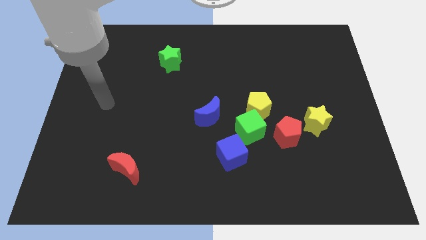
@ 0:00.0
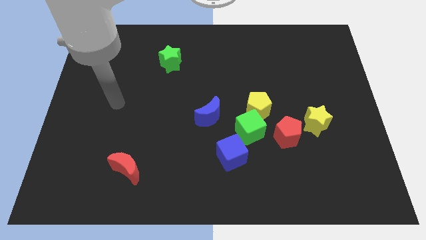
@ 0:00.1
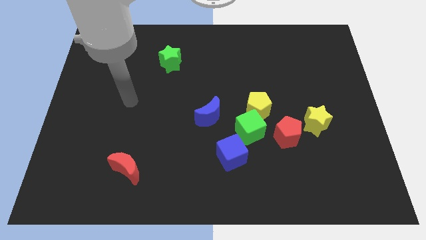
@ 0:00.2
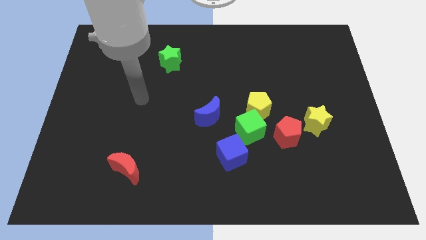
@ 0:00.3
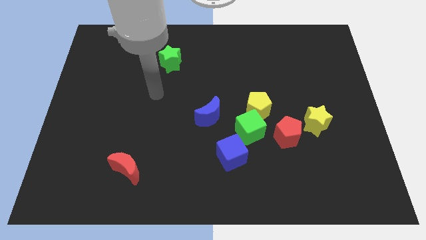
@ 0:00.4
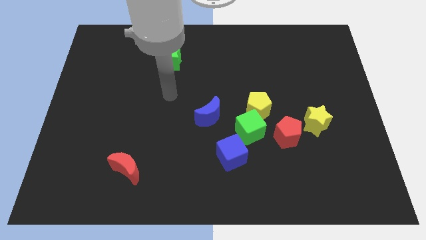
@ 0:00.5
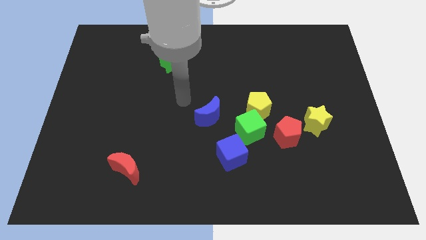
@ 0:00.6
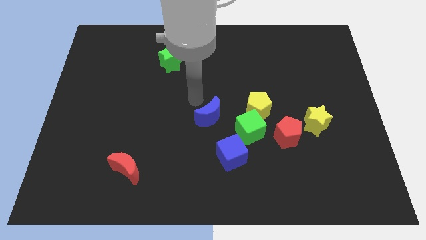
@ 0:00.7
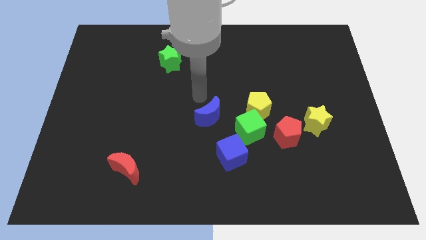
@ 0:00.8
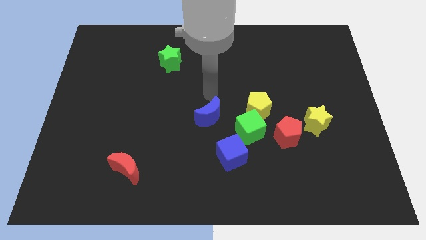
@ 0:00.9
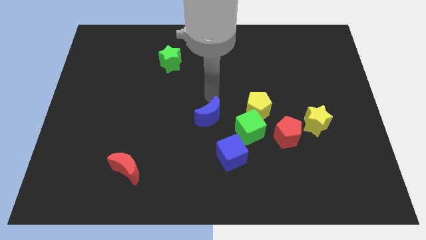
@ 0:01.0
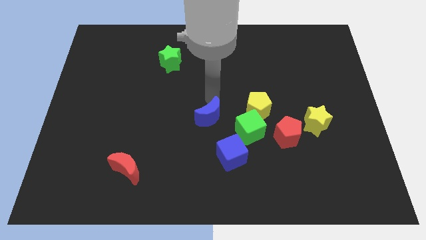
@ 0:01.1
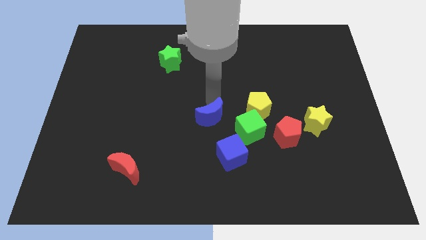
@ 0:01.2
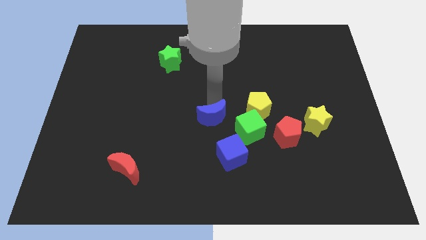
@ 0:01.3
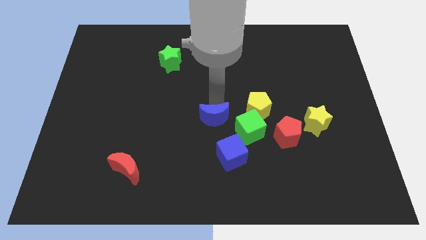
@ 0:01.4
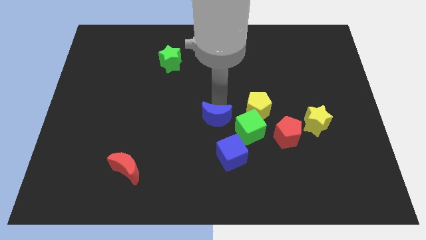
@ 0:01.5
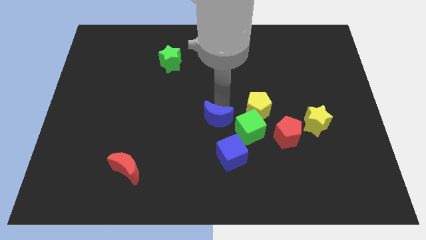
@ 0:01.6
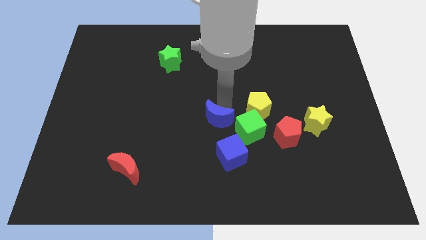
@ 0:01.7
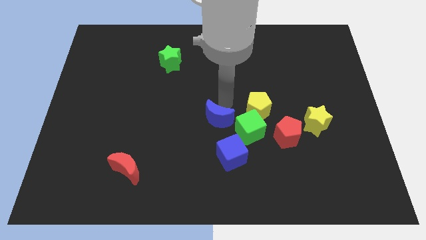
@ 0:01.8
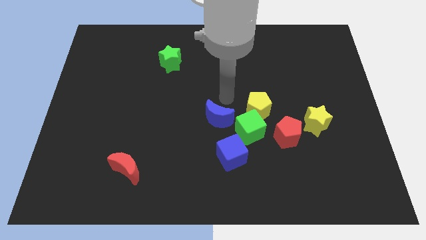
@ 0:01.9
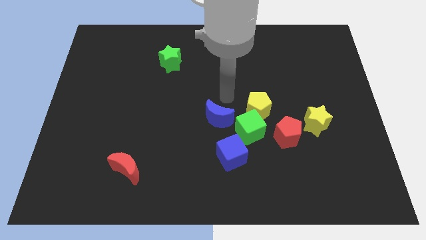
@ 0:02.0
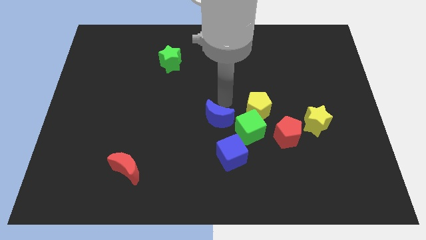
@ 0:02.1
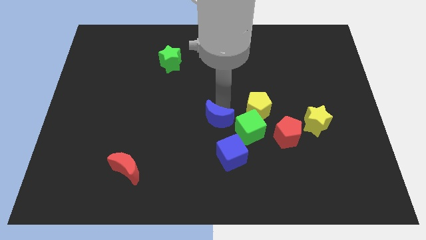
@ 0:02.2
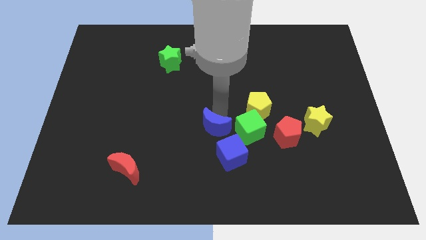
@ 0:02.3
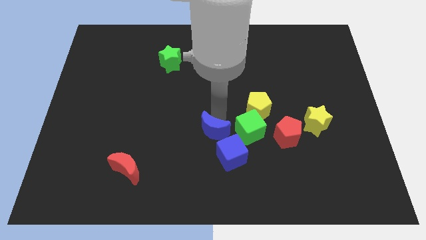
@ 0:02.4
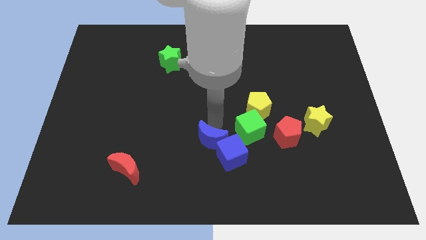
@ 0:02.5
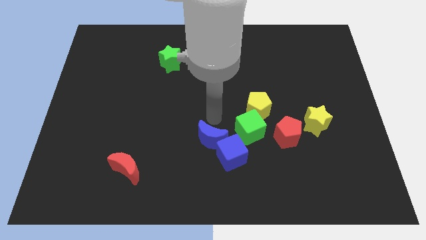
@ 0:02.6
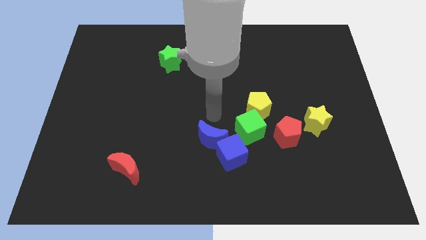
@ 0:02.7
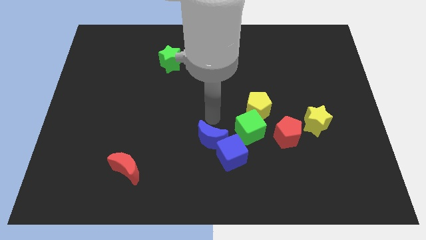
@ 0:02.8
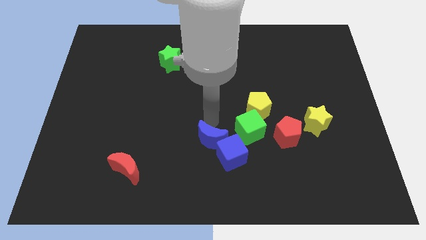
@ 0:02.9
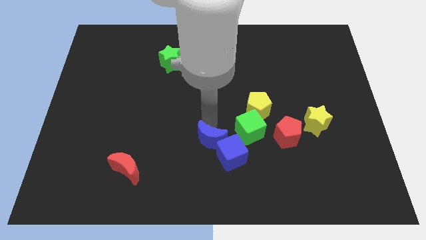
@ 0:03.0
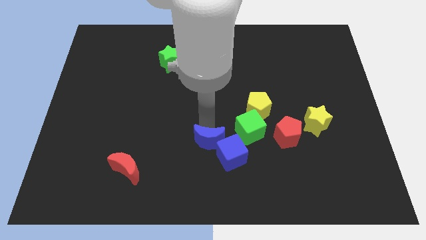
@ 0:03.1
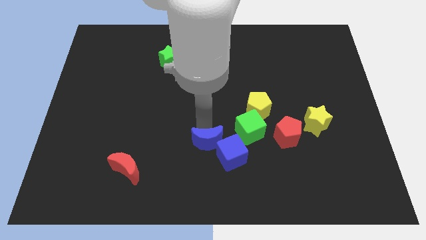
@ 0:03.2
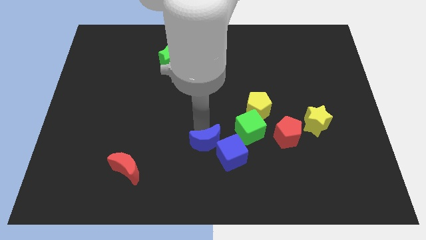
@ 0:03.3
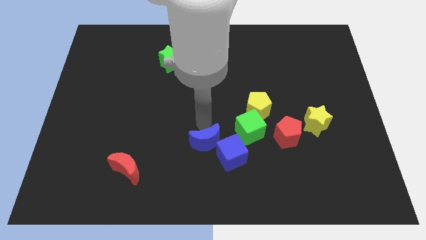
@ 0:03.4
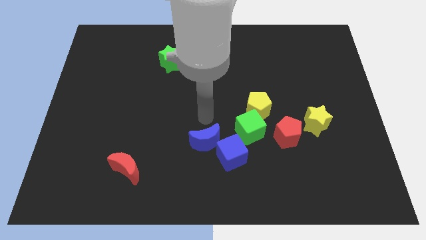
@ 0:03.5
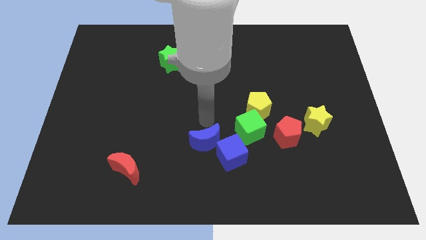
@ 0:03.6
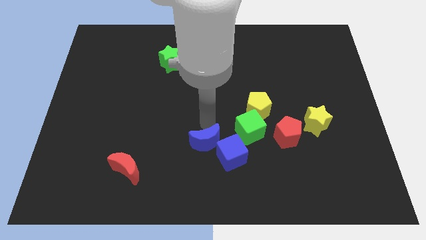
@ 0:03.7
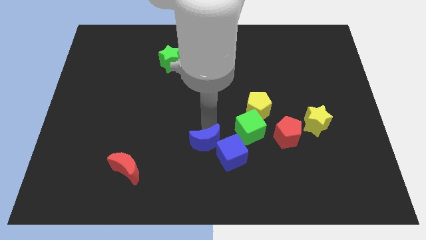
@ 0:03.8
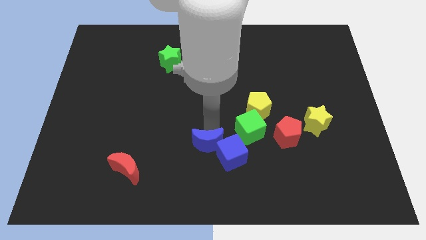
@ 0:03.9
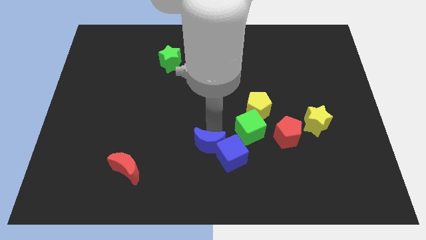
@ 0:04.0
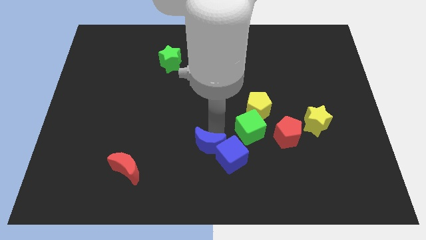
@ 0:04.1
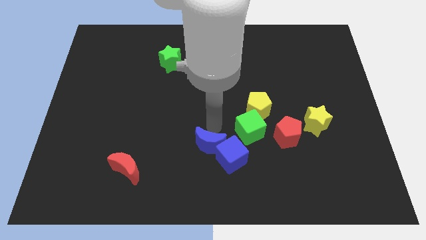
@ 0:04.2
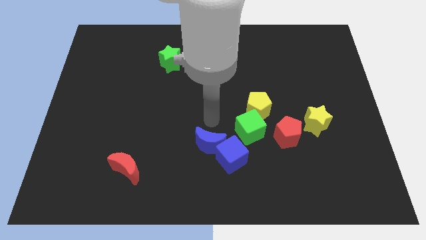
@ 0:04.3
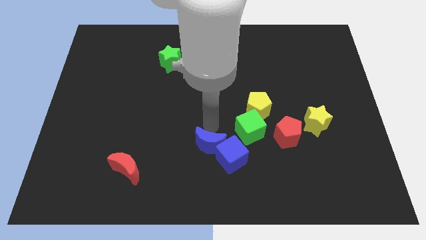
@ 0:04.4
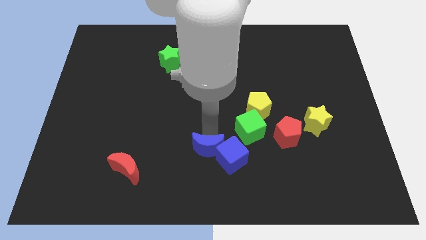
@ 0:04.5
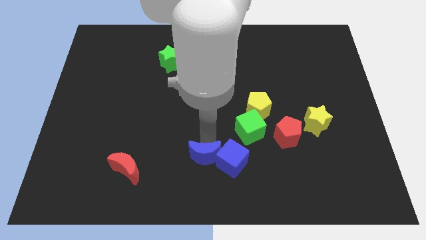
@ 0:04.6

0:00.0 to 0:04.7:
slide the blue moon to the bottom left of the blue cube

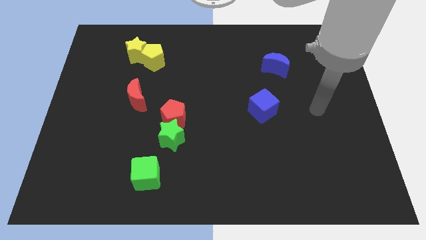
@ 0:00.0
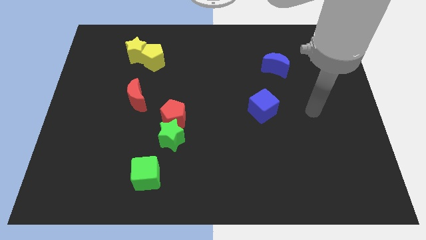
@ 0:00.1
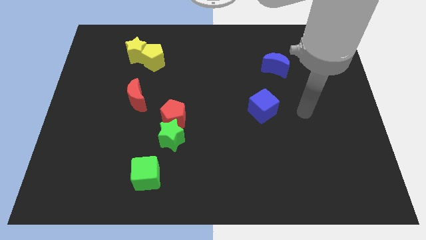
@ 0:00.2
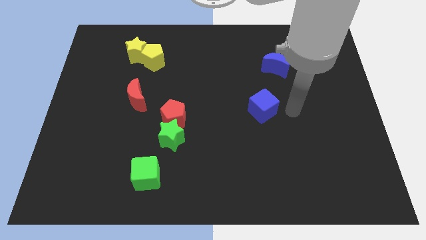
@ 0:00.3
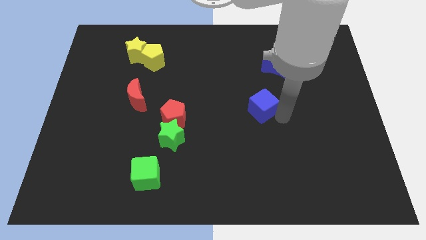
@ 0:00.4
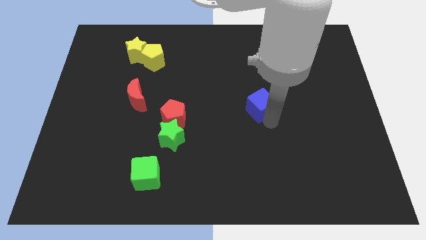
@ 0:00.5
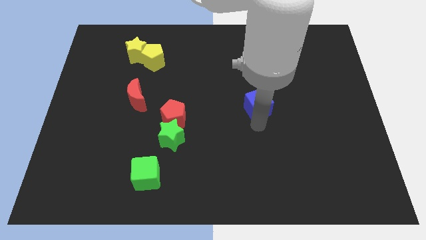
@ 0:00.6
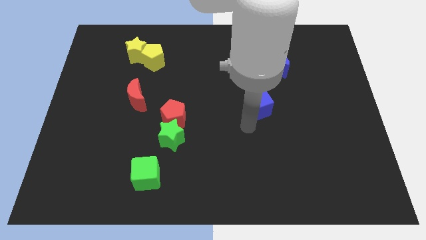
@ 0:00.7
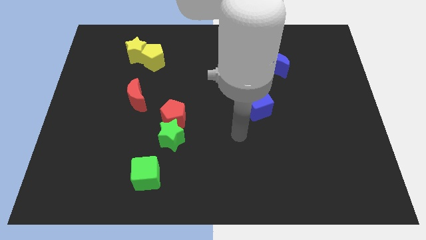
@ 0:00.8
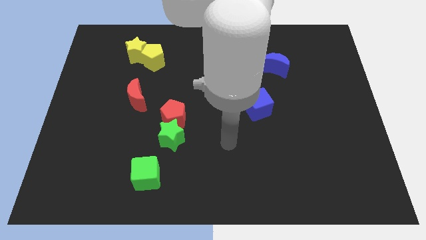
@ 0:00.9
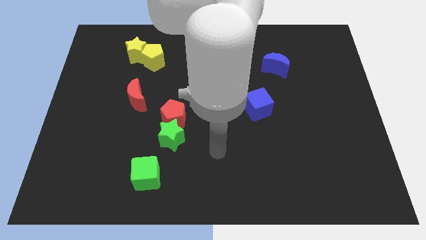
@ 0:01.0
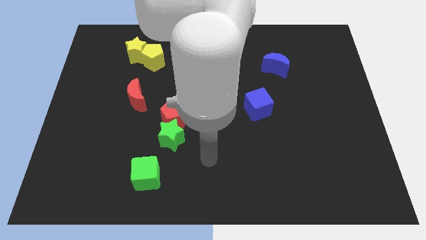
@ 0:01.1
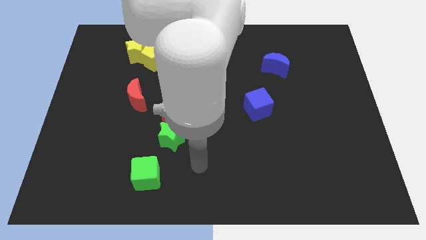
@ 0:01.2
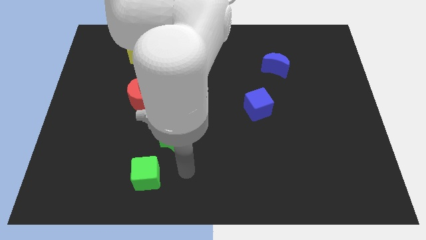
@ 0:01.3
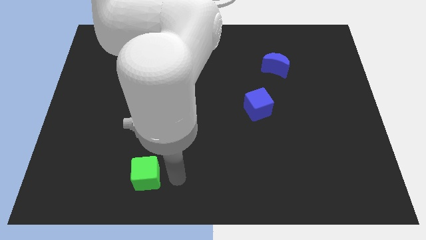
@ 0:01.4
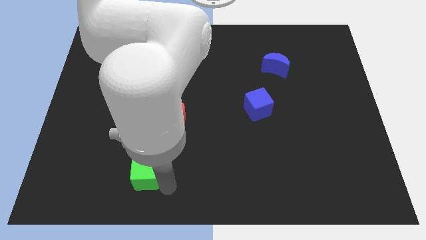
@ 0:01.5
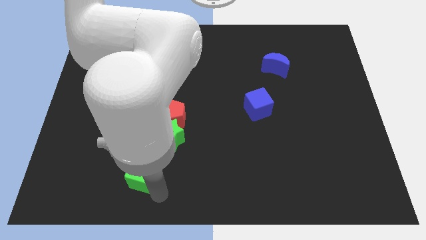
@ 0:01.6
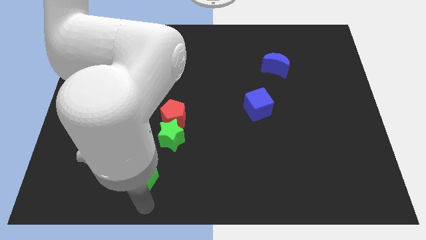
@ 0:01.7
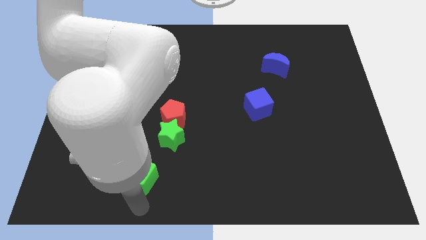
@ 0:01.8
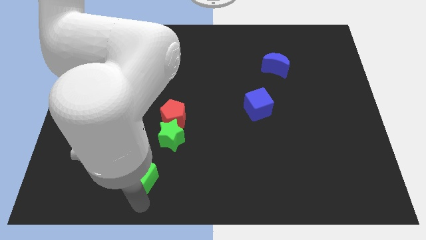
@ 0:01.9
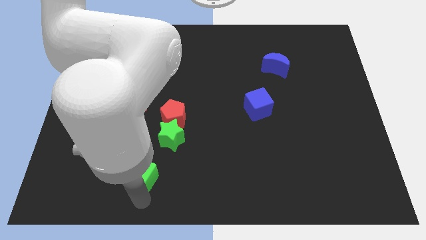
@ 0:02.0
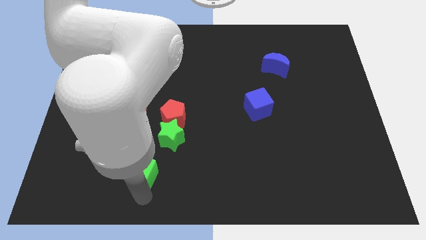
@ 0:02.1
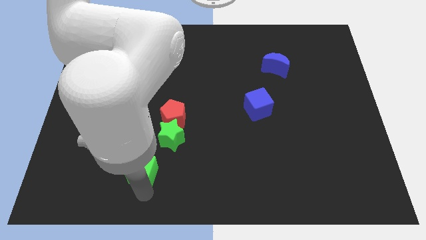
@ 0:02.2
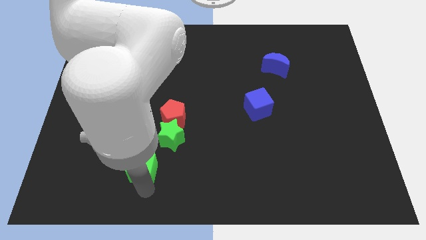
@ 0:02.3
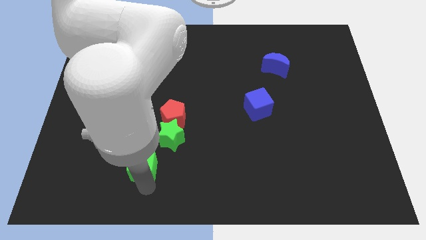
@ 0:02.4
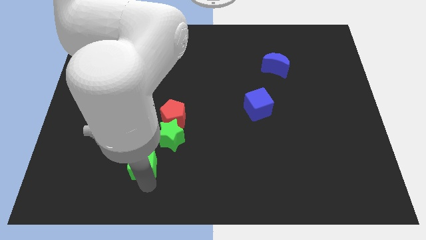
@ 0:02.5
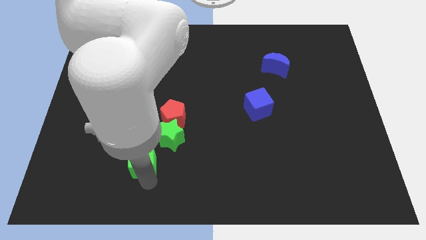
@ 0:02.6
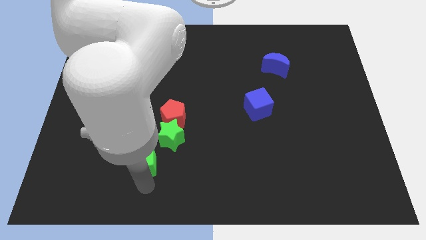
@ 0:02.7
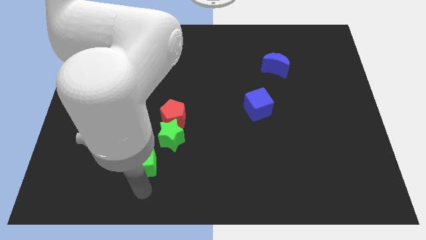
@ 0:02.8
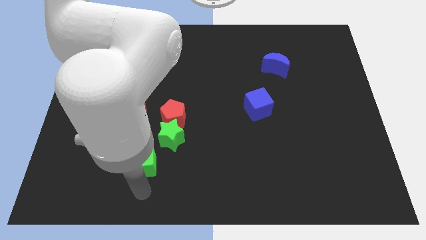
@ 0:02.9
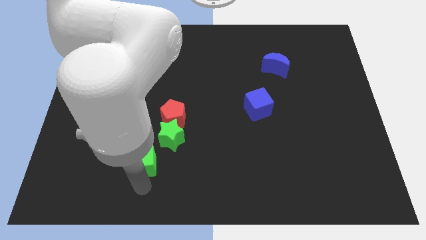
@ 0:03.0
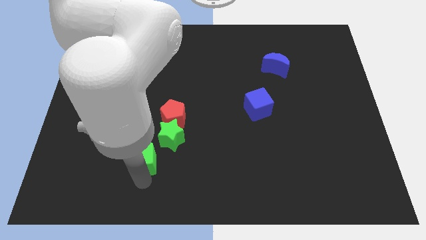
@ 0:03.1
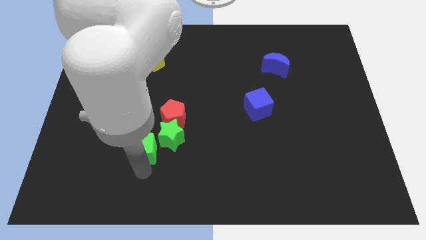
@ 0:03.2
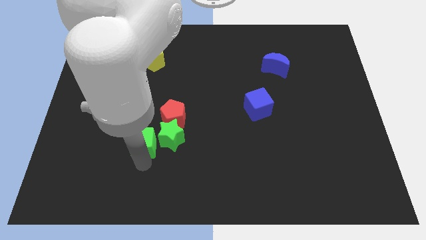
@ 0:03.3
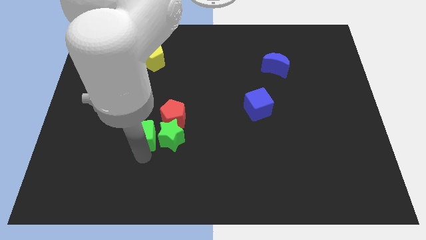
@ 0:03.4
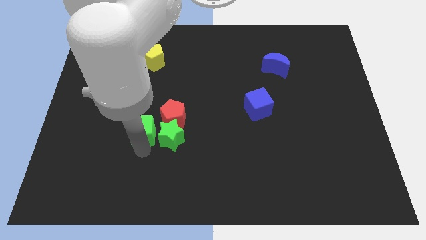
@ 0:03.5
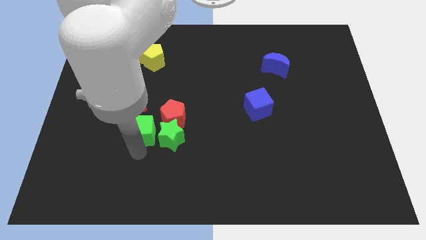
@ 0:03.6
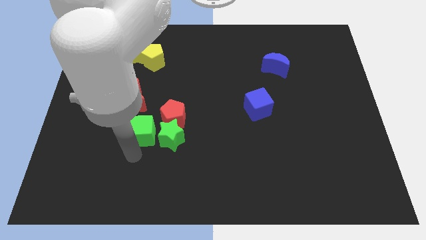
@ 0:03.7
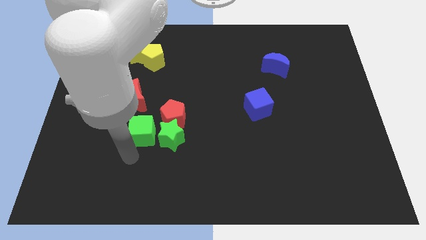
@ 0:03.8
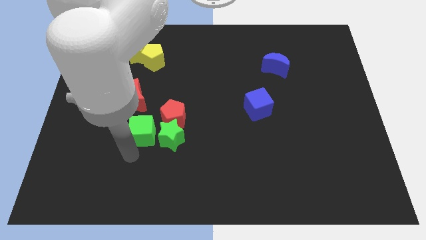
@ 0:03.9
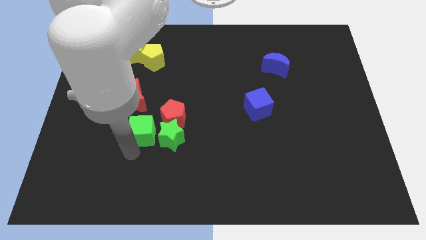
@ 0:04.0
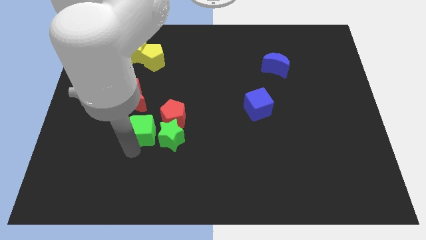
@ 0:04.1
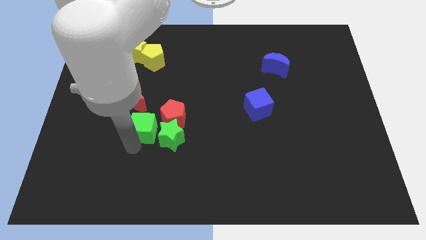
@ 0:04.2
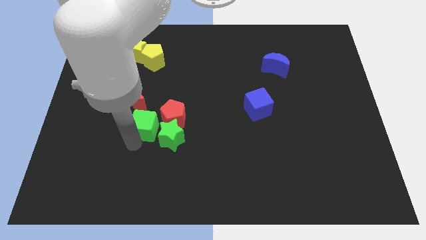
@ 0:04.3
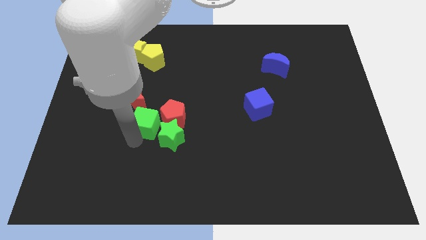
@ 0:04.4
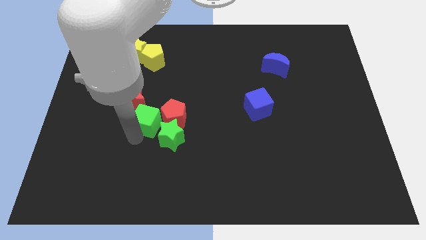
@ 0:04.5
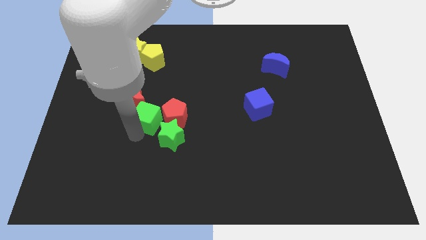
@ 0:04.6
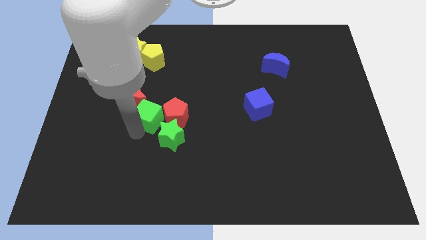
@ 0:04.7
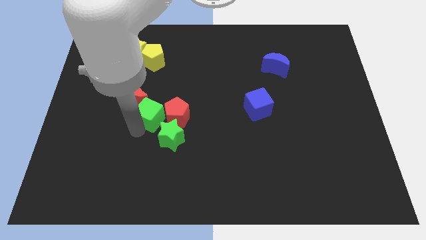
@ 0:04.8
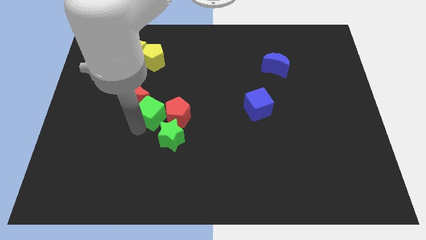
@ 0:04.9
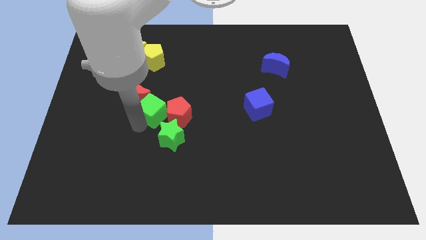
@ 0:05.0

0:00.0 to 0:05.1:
slide the green cube to the top of the green star
